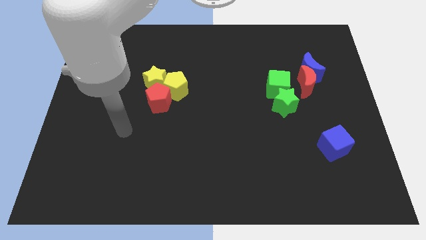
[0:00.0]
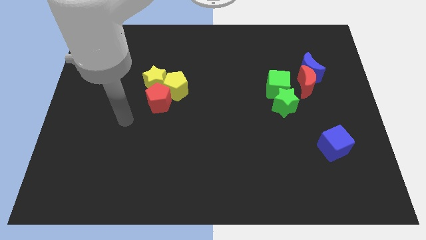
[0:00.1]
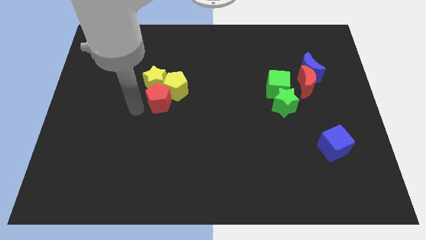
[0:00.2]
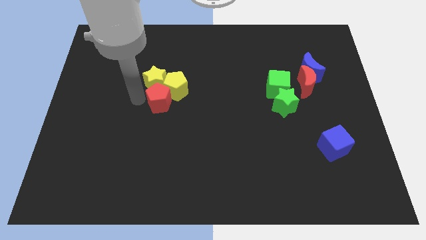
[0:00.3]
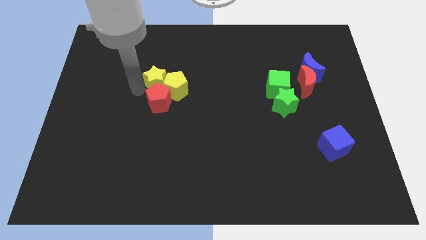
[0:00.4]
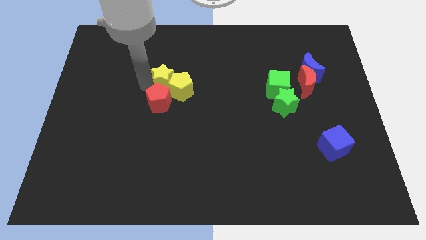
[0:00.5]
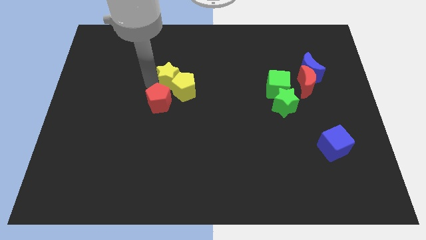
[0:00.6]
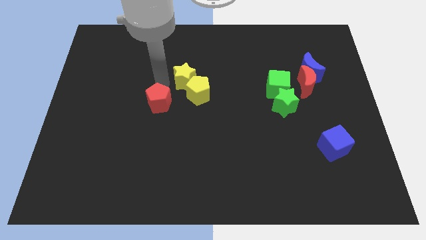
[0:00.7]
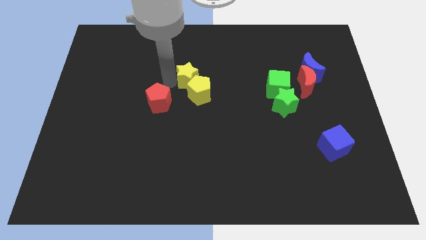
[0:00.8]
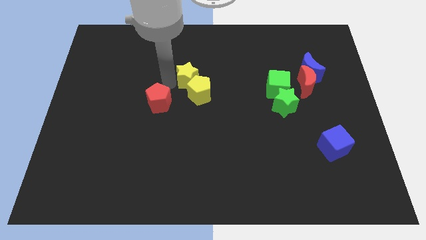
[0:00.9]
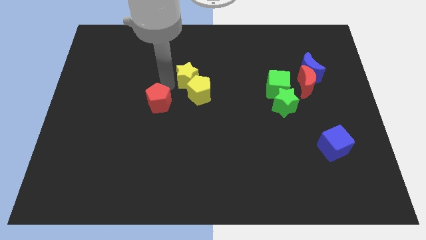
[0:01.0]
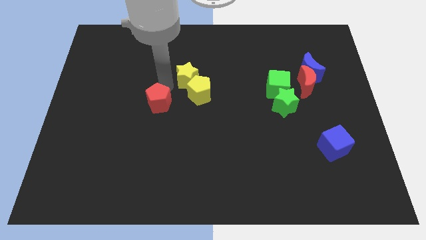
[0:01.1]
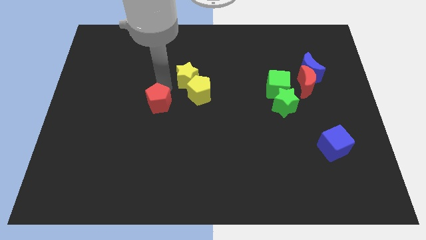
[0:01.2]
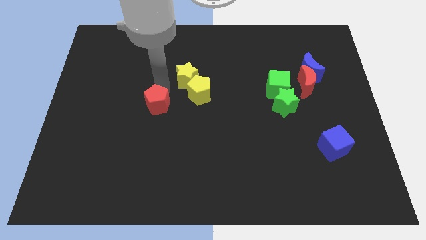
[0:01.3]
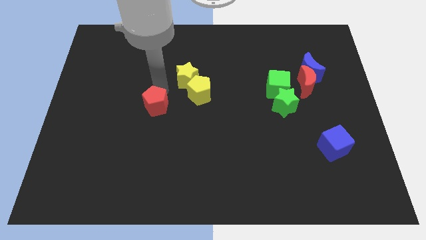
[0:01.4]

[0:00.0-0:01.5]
pull the red pentagon apart from the yellow pentagon and yellow star

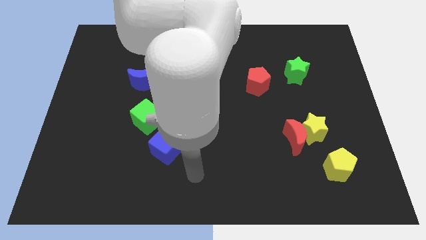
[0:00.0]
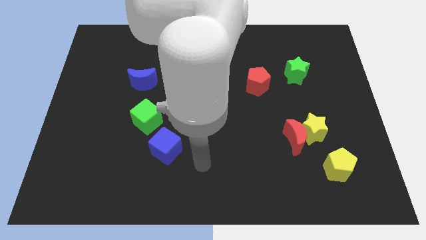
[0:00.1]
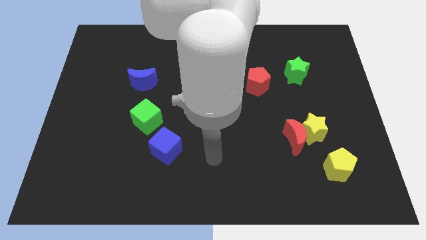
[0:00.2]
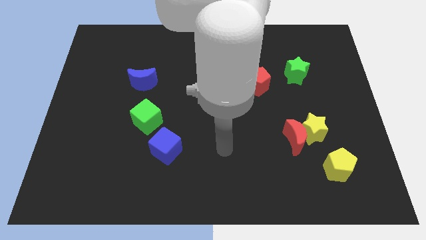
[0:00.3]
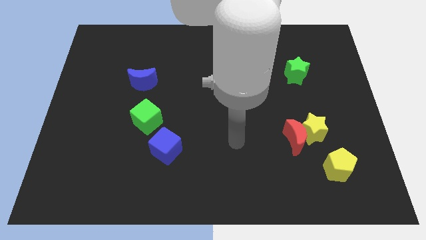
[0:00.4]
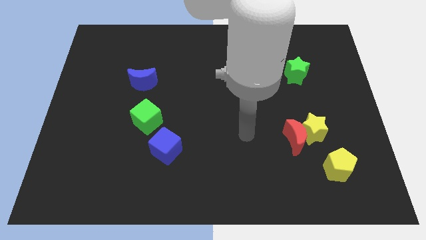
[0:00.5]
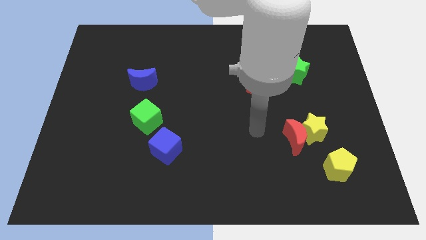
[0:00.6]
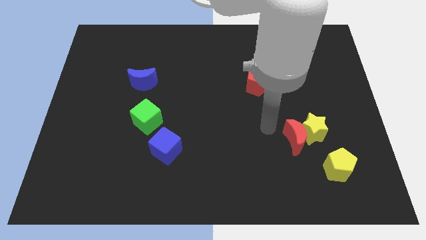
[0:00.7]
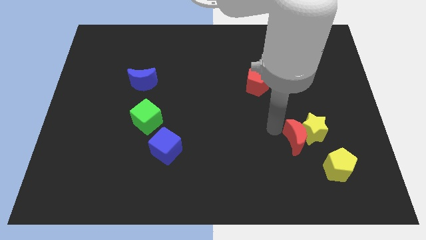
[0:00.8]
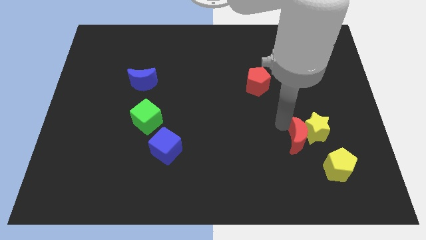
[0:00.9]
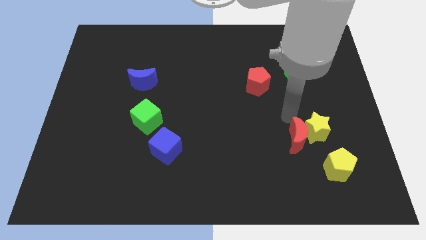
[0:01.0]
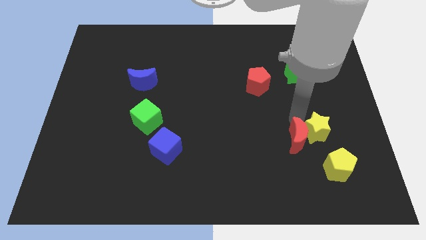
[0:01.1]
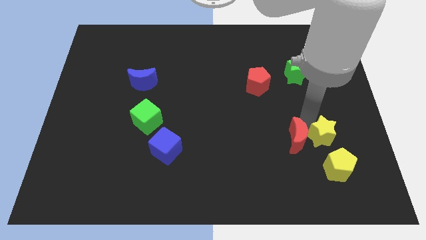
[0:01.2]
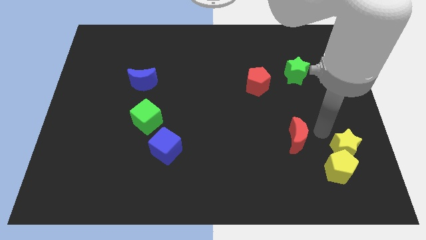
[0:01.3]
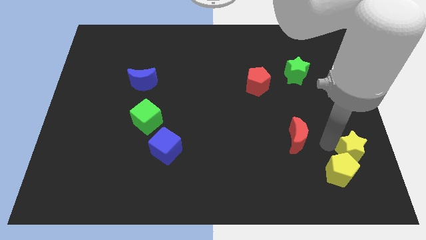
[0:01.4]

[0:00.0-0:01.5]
separate the red moon from the yellow star

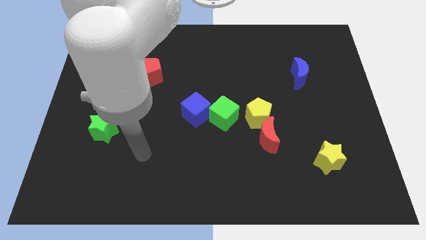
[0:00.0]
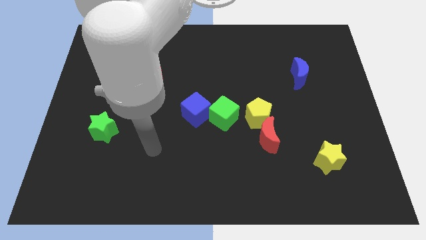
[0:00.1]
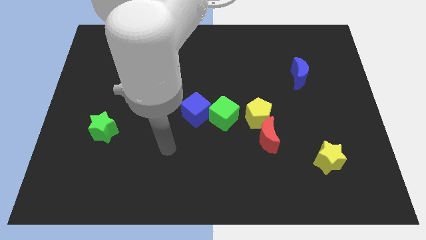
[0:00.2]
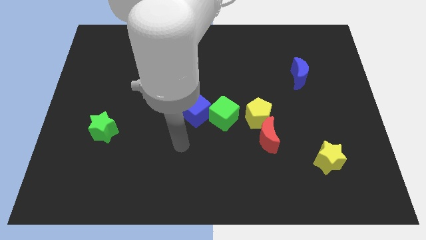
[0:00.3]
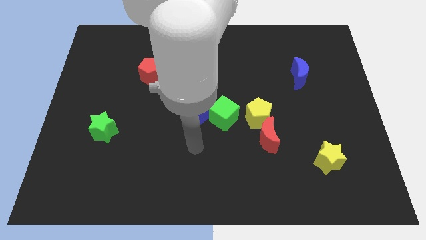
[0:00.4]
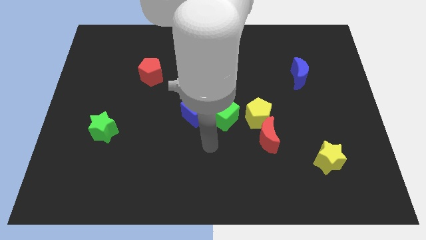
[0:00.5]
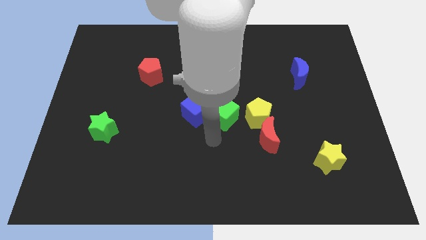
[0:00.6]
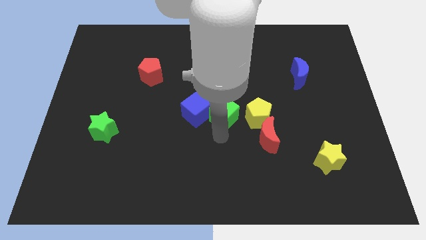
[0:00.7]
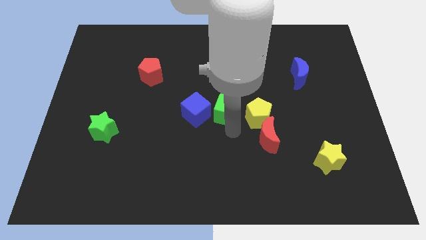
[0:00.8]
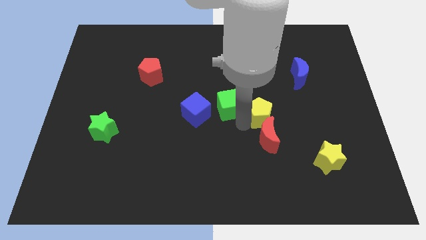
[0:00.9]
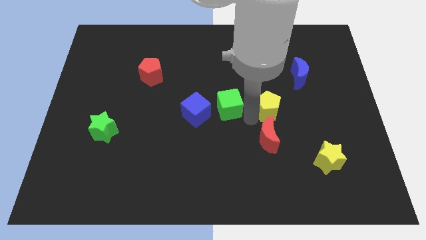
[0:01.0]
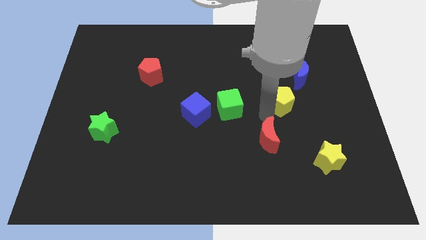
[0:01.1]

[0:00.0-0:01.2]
separate the red moon from the yellow pentagon

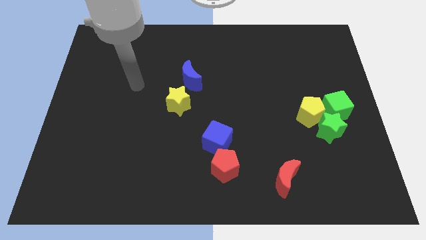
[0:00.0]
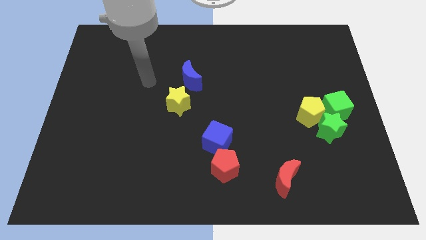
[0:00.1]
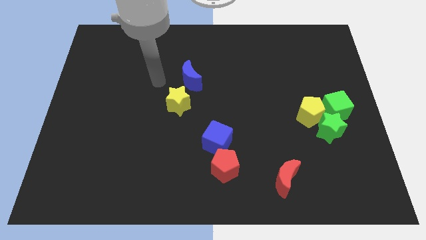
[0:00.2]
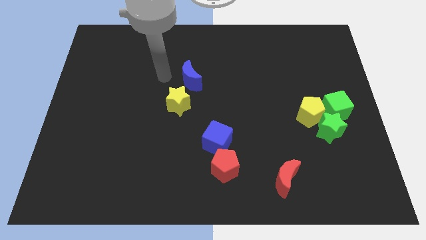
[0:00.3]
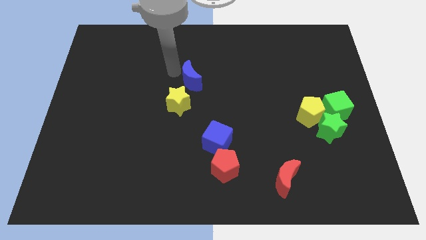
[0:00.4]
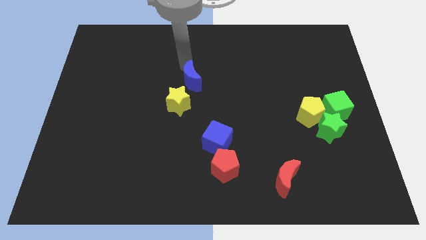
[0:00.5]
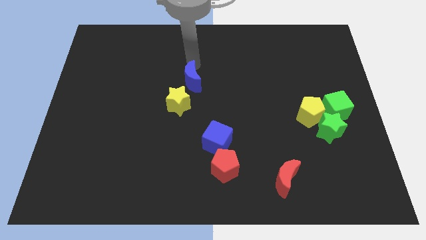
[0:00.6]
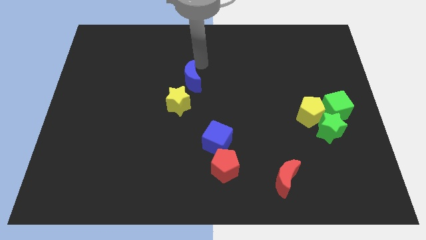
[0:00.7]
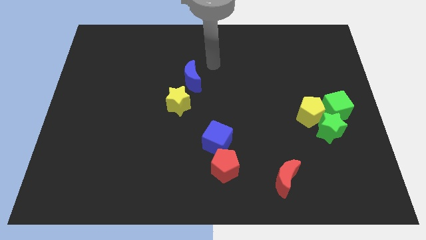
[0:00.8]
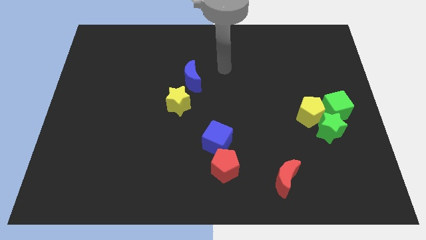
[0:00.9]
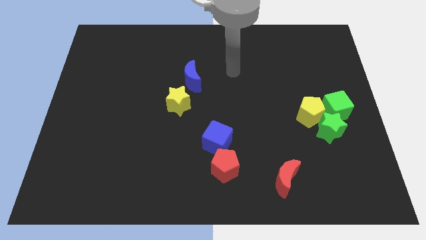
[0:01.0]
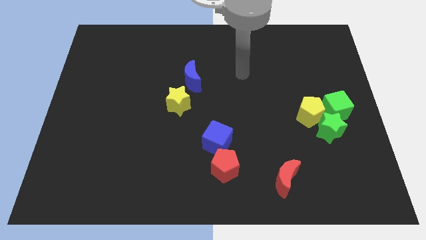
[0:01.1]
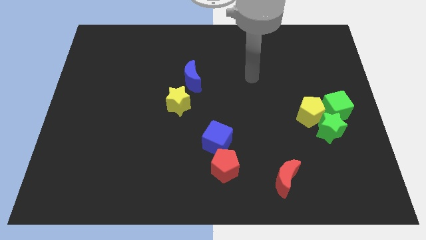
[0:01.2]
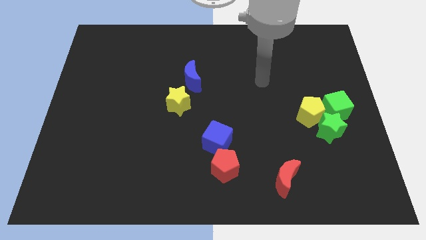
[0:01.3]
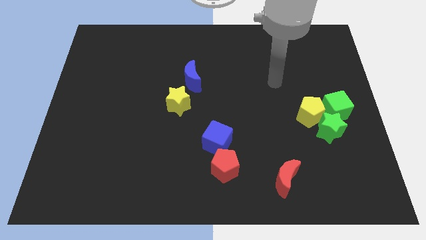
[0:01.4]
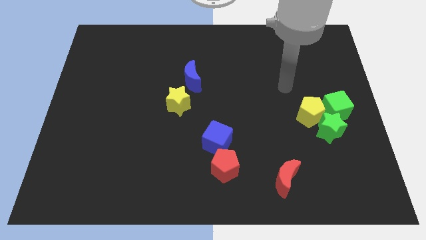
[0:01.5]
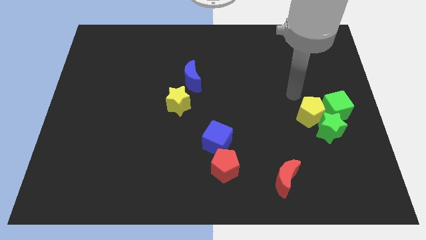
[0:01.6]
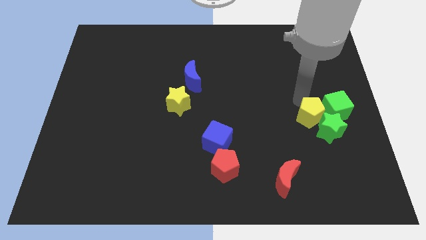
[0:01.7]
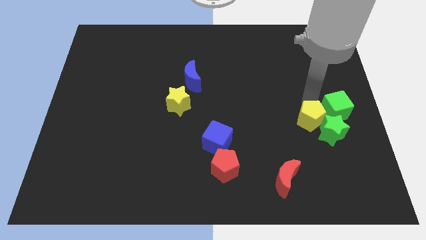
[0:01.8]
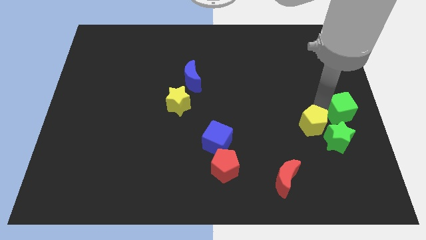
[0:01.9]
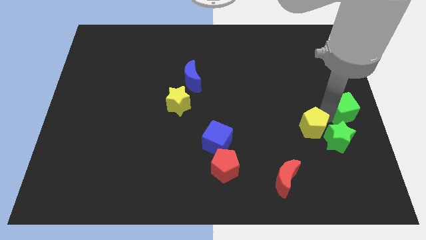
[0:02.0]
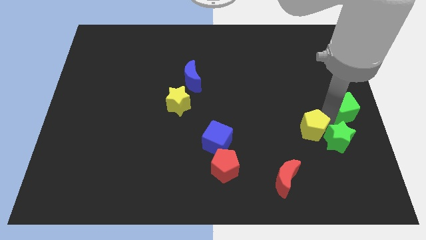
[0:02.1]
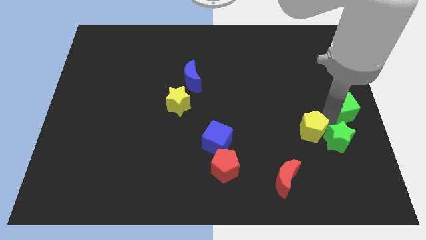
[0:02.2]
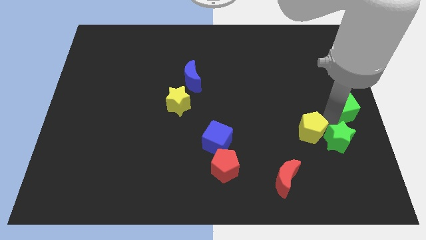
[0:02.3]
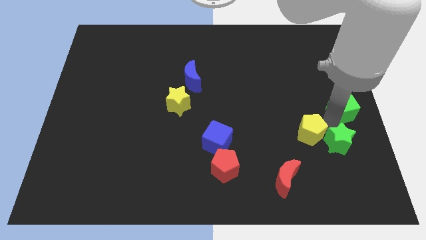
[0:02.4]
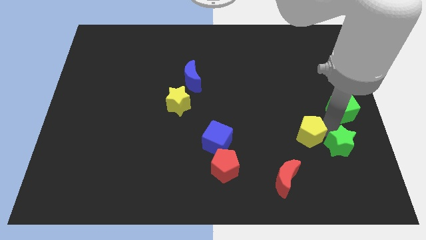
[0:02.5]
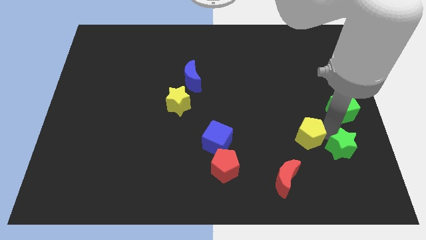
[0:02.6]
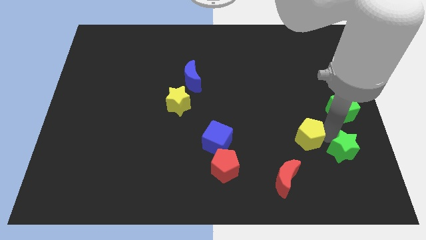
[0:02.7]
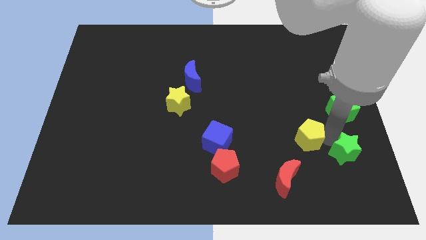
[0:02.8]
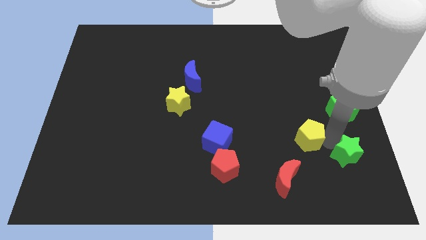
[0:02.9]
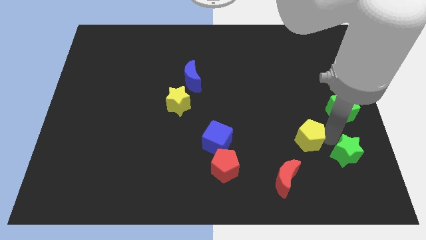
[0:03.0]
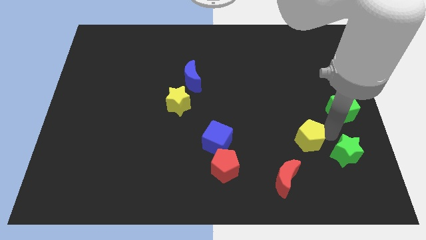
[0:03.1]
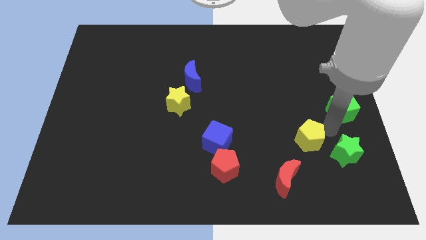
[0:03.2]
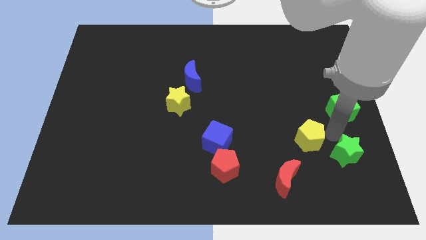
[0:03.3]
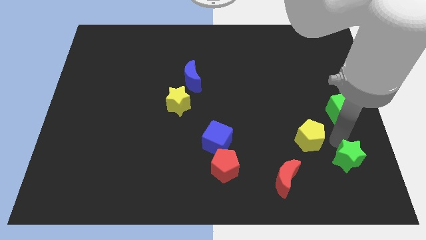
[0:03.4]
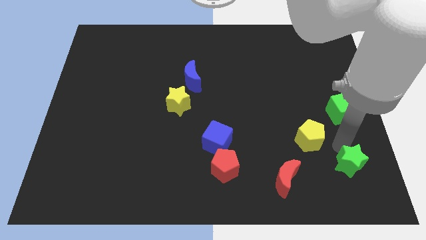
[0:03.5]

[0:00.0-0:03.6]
move the green star away from the yellow pentagon and green cube

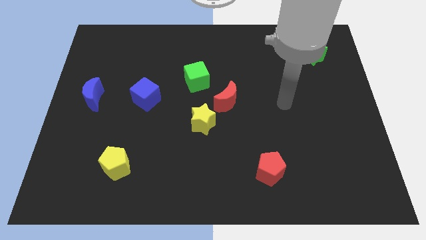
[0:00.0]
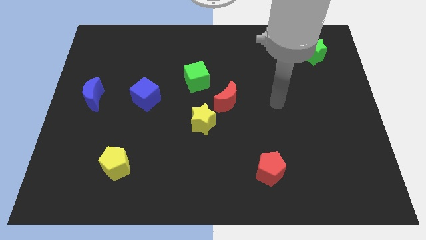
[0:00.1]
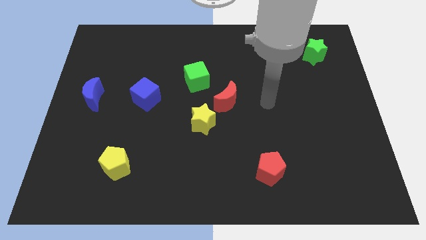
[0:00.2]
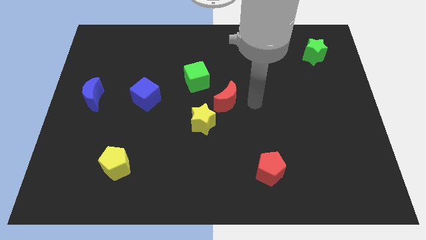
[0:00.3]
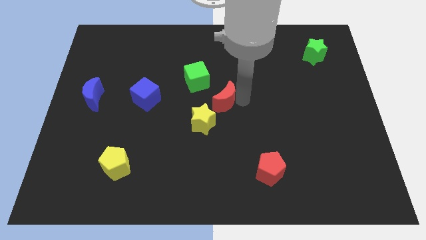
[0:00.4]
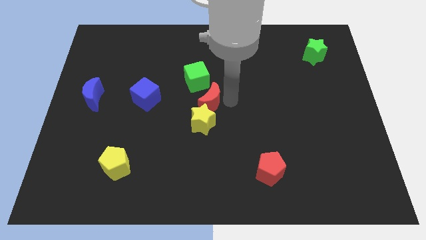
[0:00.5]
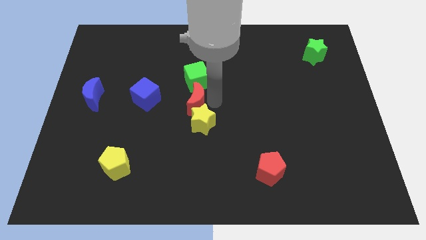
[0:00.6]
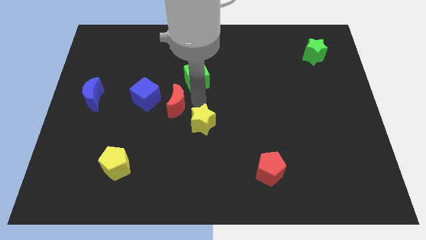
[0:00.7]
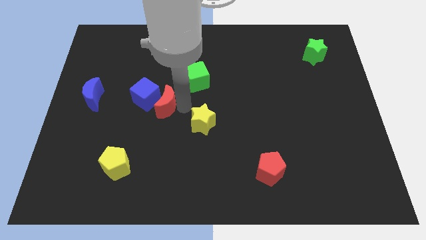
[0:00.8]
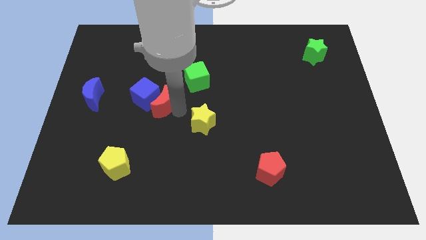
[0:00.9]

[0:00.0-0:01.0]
move the yellow star away from the red moon

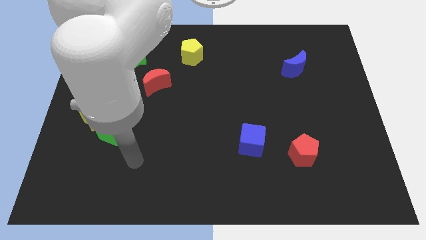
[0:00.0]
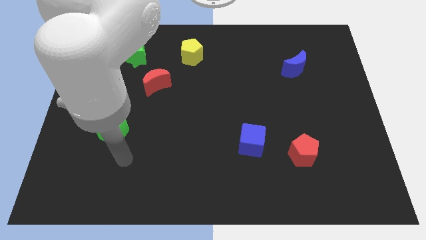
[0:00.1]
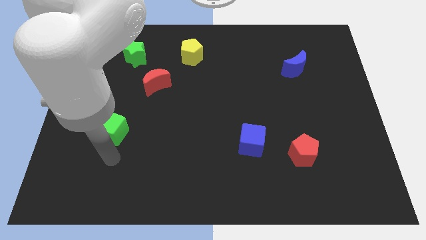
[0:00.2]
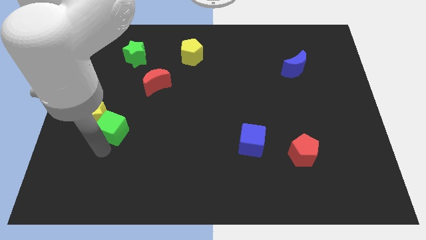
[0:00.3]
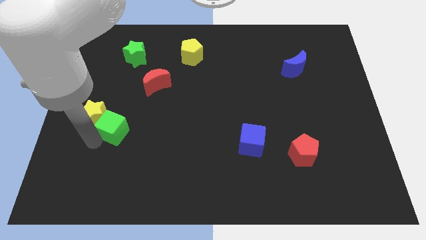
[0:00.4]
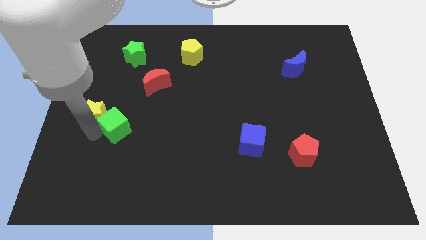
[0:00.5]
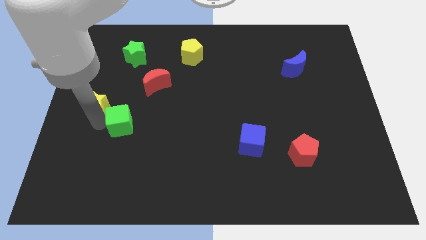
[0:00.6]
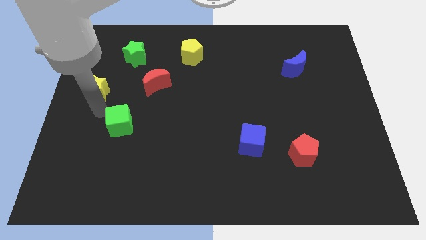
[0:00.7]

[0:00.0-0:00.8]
pull the green cube apart from the yellow star
